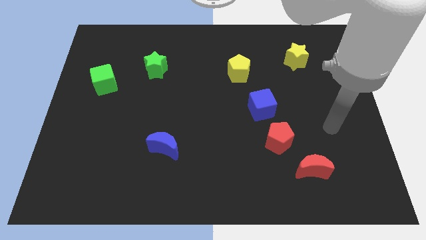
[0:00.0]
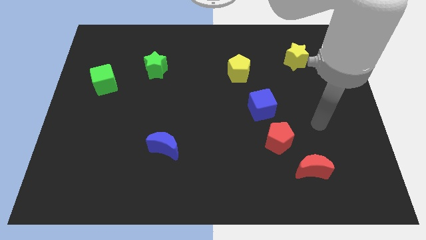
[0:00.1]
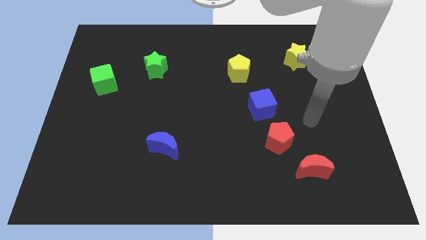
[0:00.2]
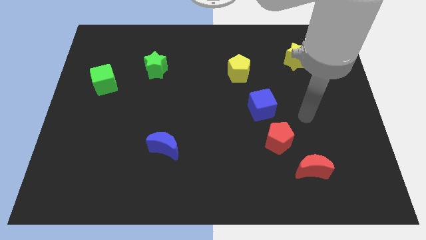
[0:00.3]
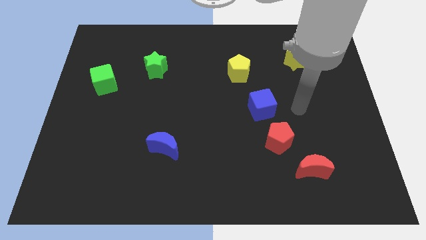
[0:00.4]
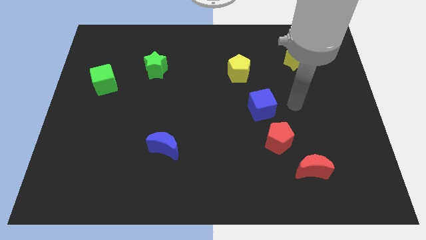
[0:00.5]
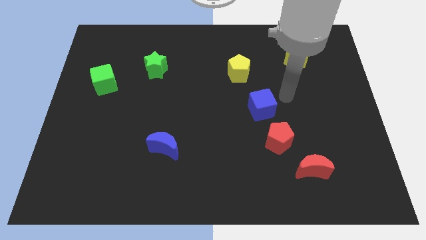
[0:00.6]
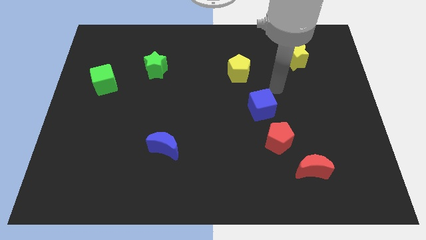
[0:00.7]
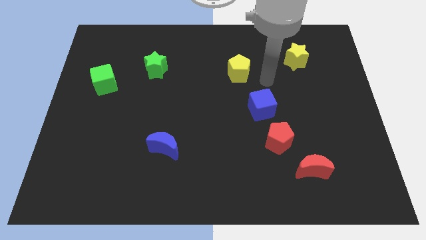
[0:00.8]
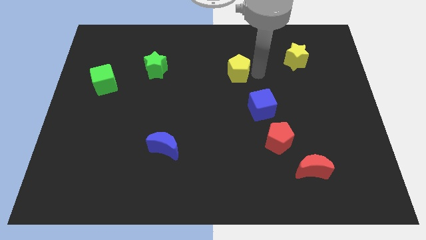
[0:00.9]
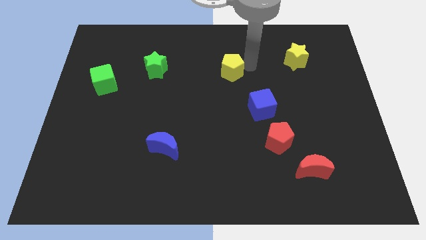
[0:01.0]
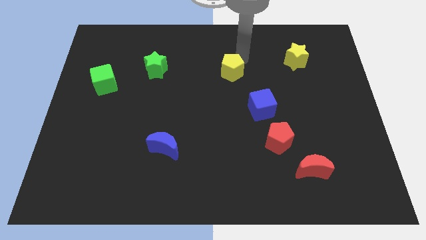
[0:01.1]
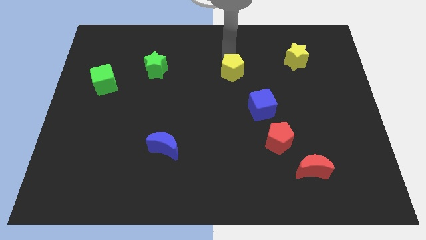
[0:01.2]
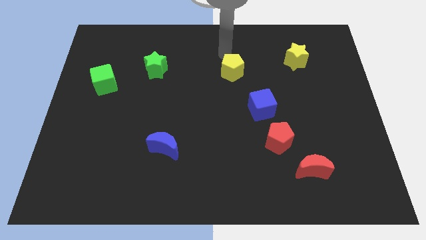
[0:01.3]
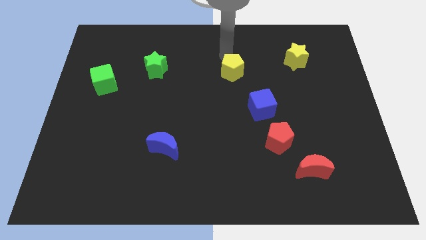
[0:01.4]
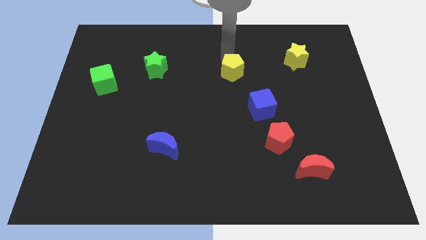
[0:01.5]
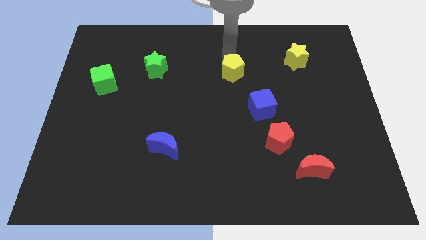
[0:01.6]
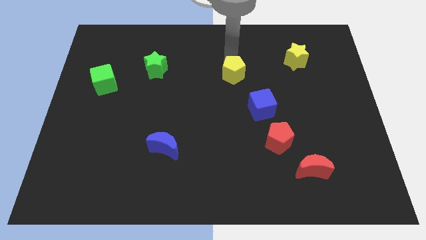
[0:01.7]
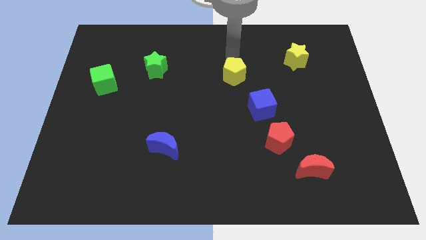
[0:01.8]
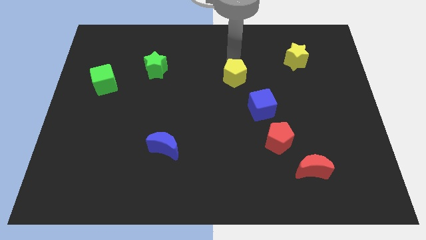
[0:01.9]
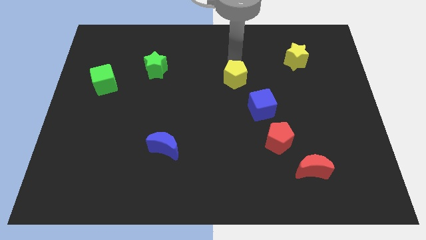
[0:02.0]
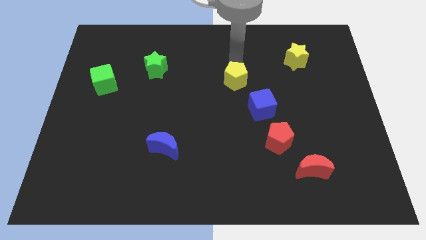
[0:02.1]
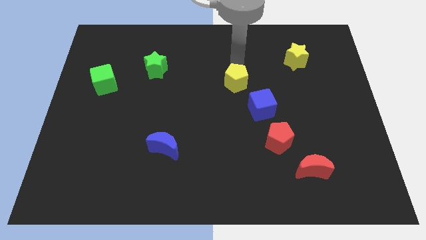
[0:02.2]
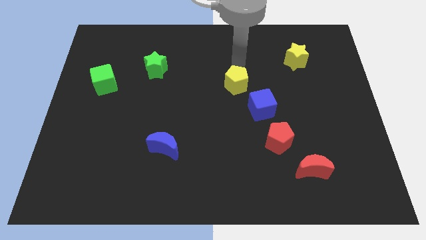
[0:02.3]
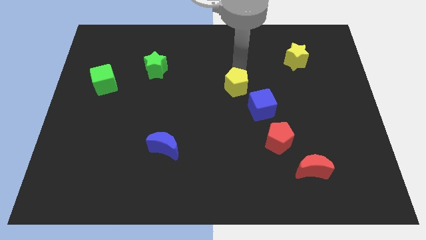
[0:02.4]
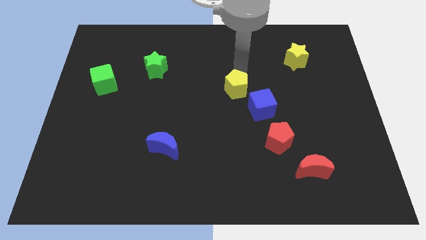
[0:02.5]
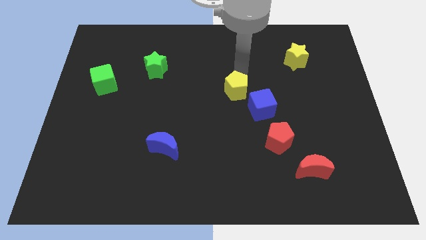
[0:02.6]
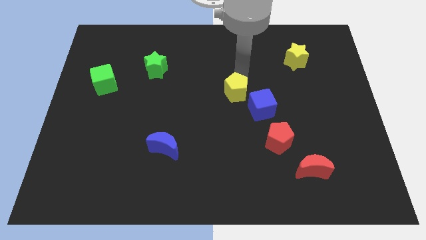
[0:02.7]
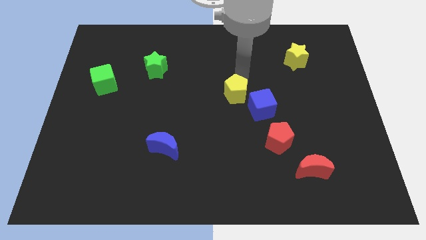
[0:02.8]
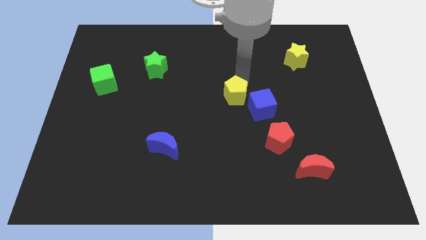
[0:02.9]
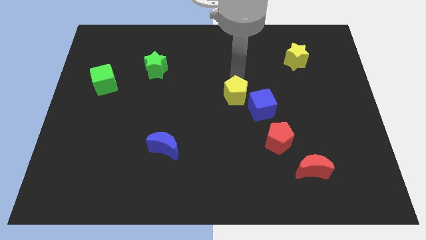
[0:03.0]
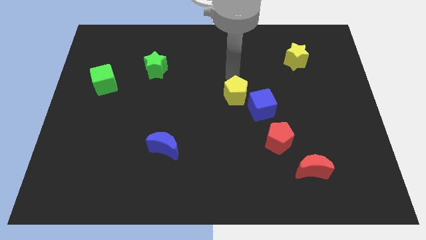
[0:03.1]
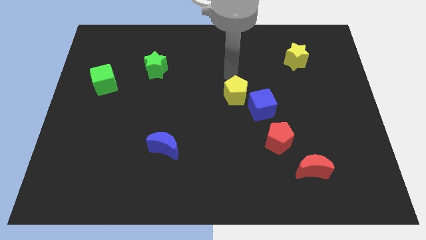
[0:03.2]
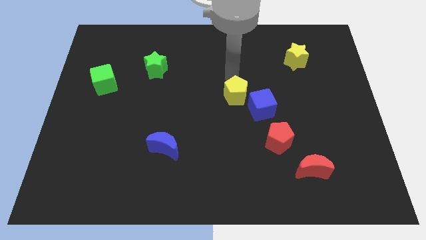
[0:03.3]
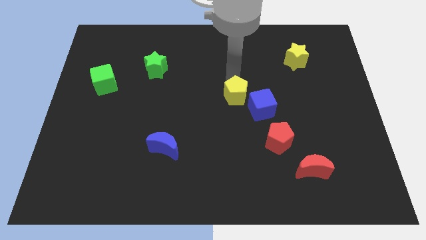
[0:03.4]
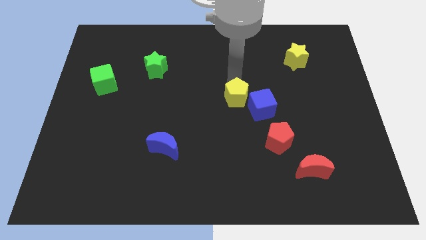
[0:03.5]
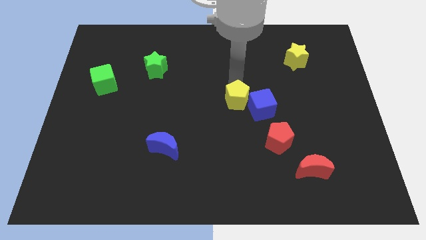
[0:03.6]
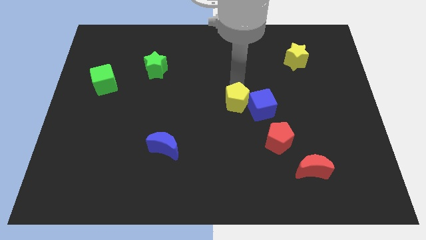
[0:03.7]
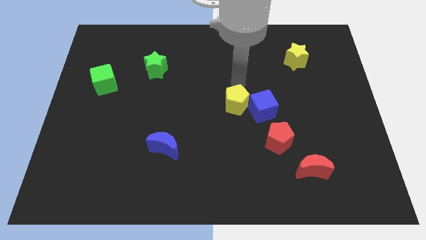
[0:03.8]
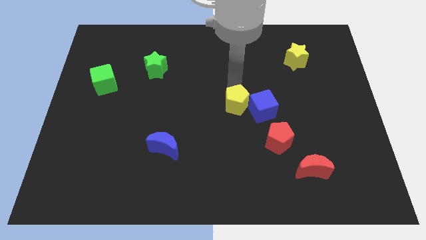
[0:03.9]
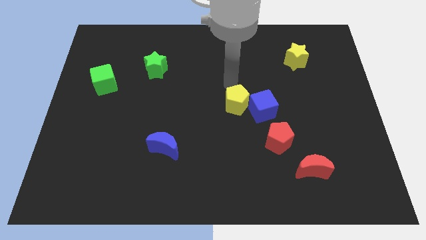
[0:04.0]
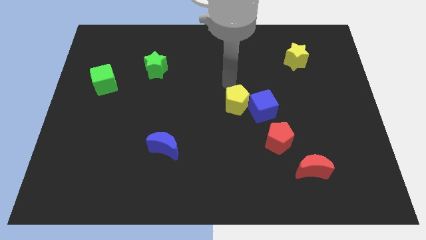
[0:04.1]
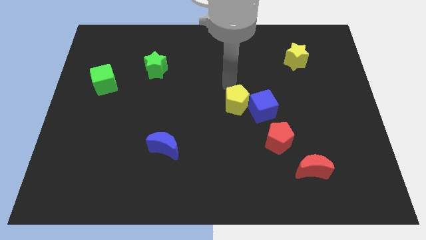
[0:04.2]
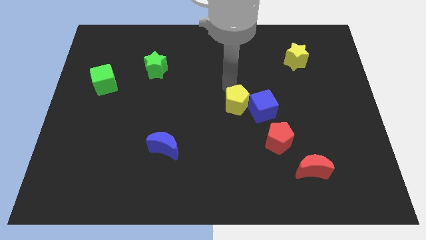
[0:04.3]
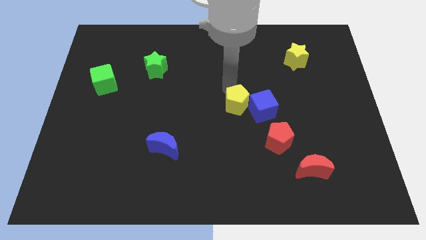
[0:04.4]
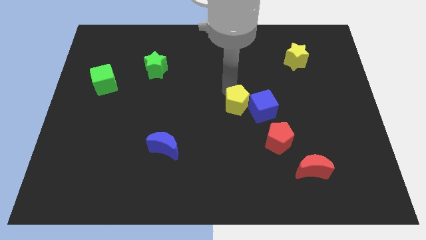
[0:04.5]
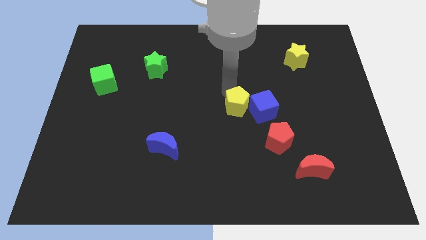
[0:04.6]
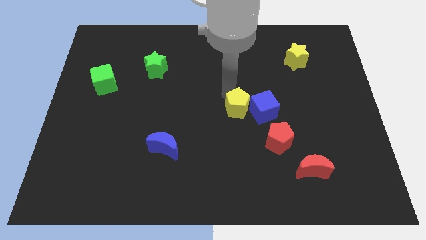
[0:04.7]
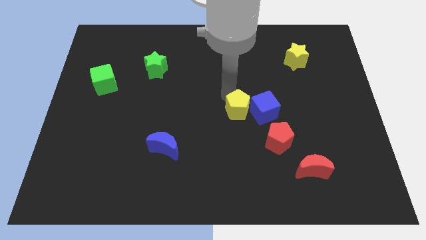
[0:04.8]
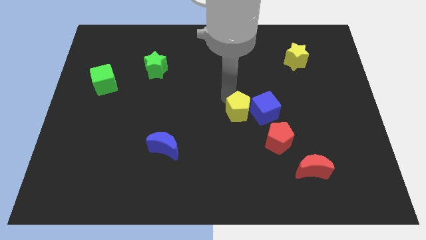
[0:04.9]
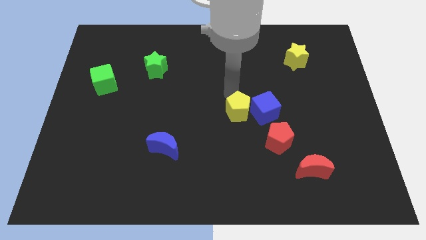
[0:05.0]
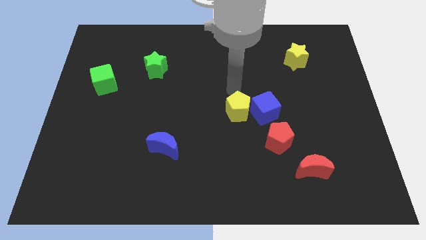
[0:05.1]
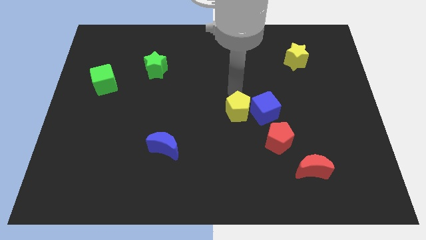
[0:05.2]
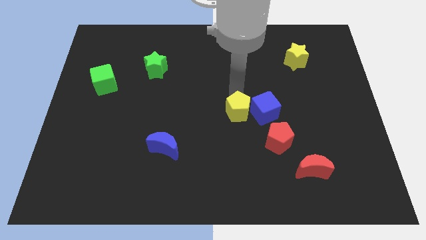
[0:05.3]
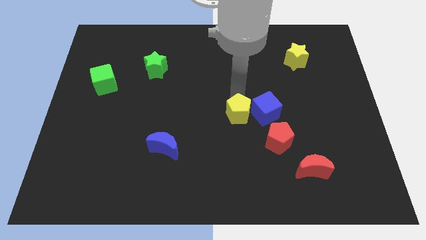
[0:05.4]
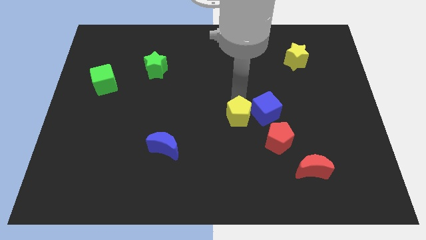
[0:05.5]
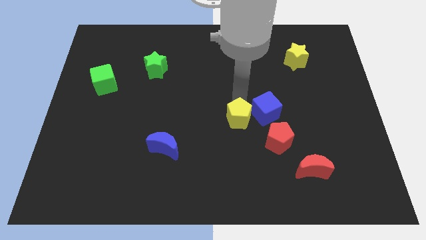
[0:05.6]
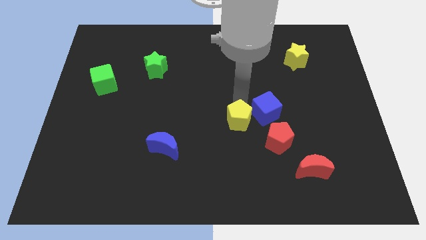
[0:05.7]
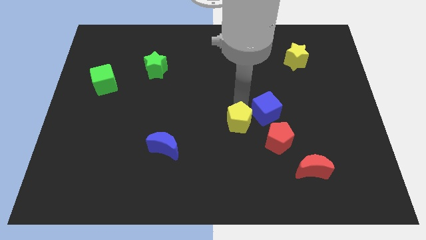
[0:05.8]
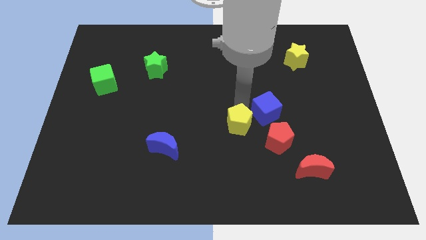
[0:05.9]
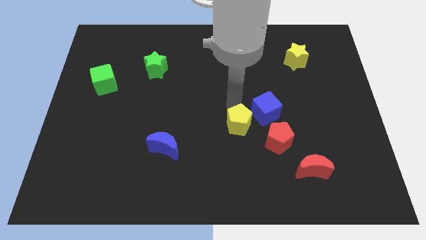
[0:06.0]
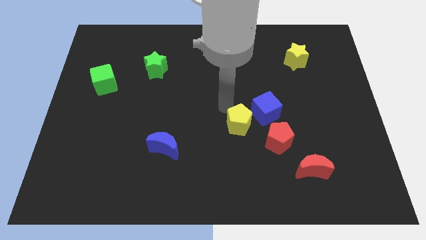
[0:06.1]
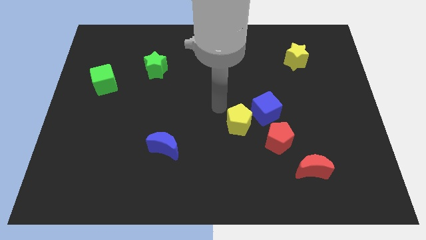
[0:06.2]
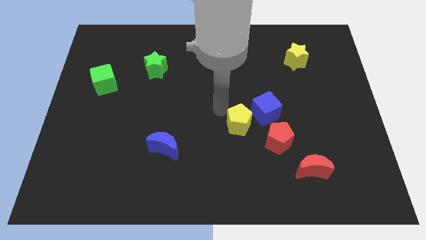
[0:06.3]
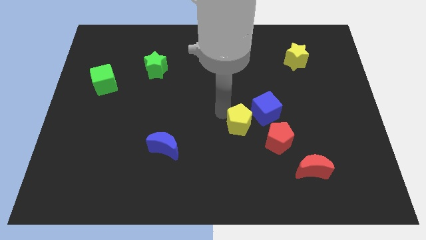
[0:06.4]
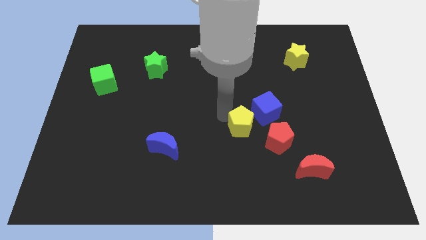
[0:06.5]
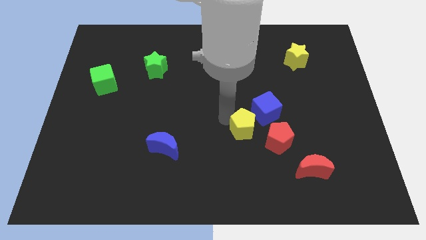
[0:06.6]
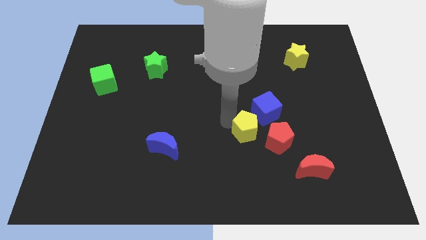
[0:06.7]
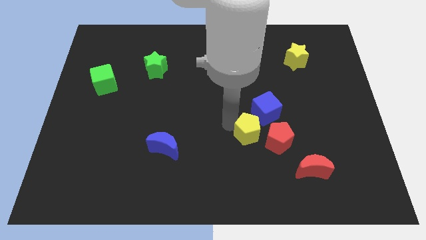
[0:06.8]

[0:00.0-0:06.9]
move the yellow pentagon to the bottom of the blue cube

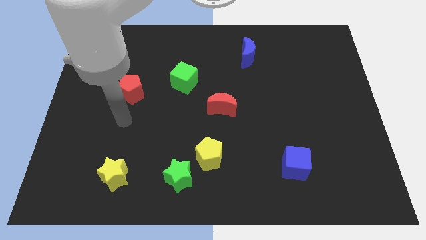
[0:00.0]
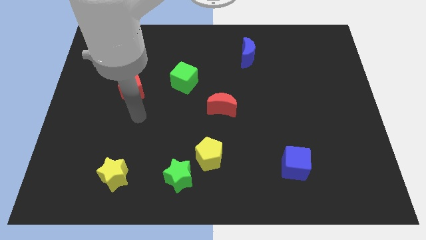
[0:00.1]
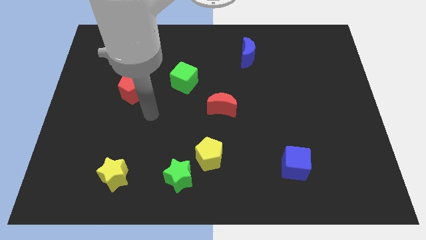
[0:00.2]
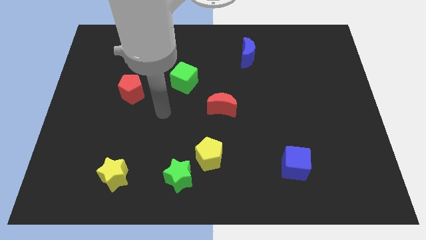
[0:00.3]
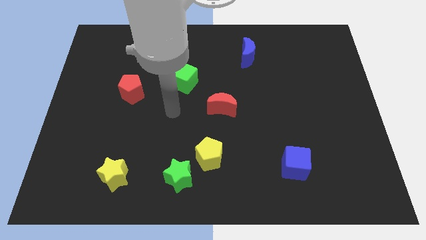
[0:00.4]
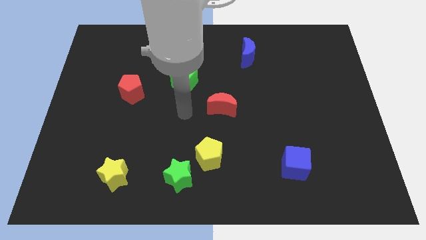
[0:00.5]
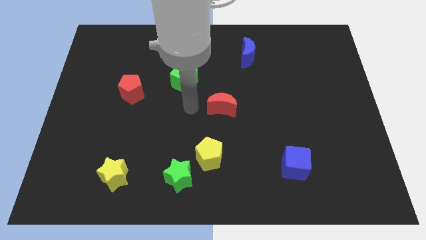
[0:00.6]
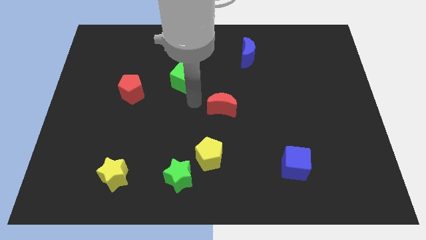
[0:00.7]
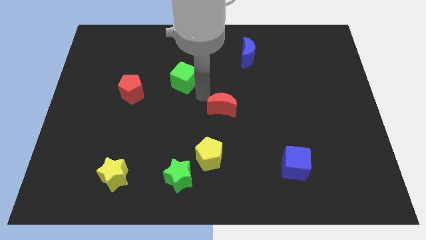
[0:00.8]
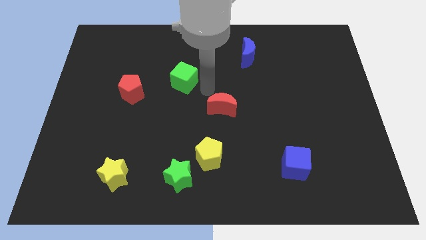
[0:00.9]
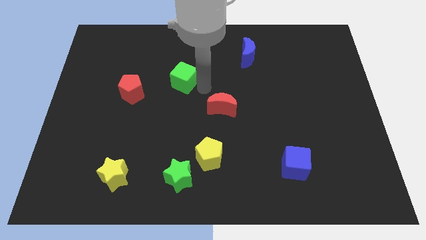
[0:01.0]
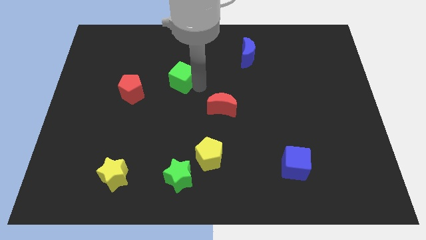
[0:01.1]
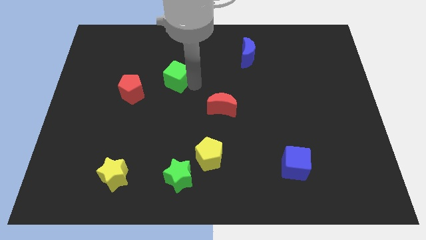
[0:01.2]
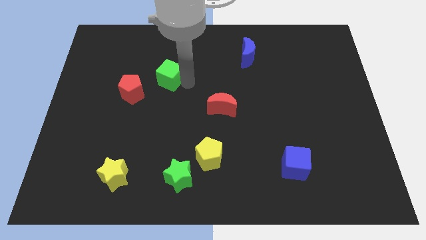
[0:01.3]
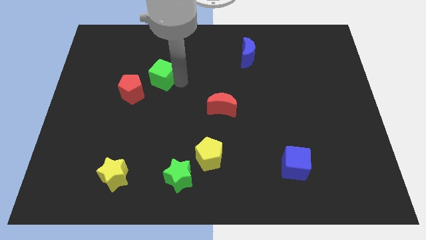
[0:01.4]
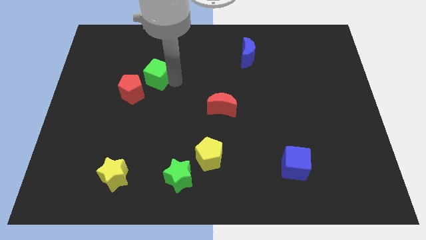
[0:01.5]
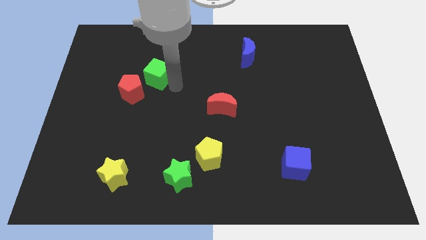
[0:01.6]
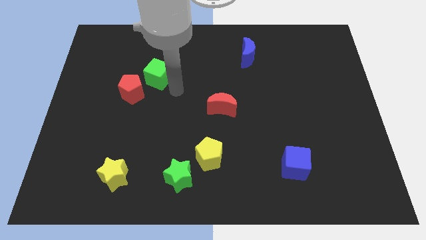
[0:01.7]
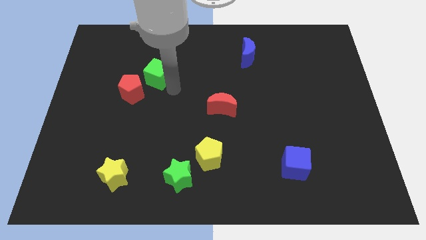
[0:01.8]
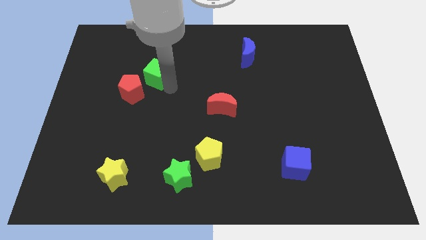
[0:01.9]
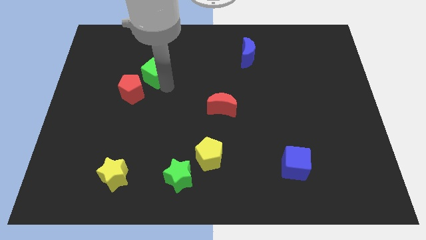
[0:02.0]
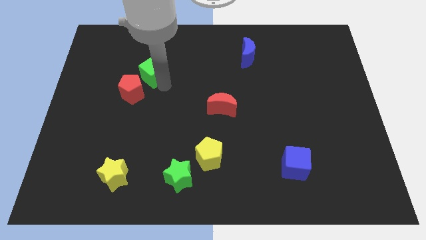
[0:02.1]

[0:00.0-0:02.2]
slide the green cube to the top side of the red pentagon
